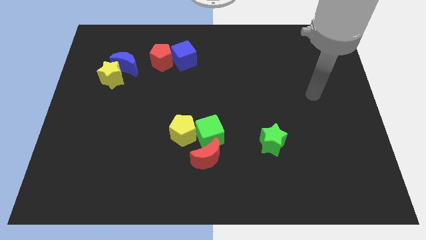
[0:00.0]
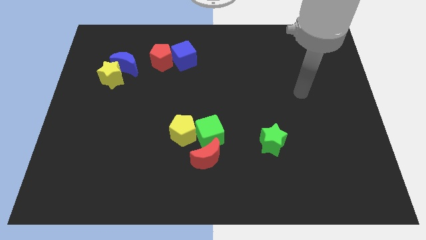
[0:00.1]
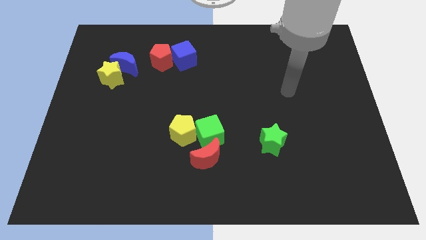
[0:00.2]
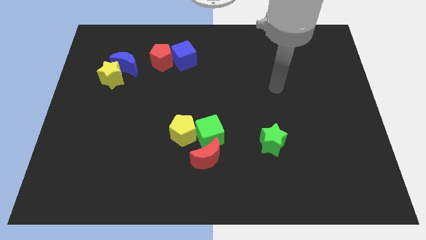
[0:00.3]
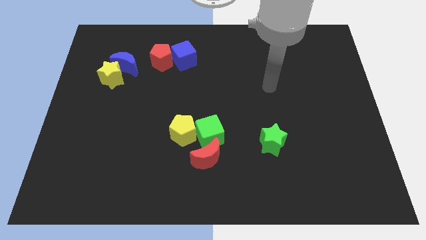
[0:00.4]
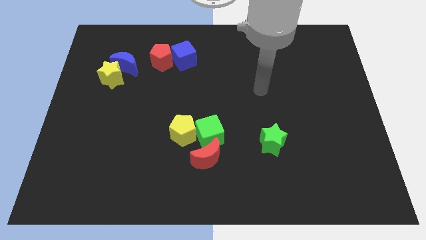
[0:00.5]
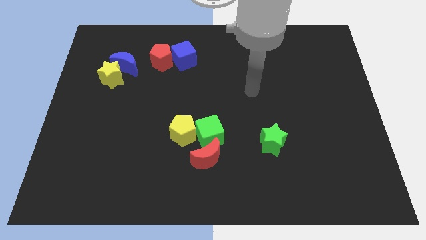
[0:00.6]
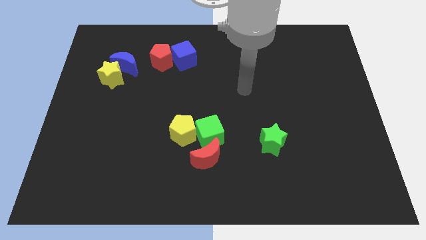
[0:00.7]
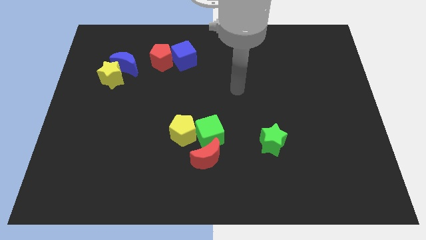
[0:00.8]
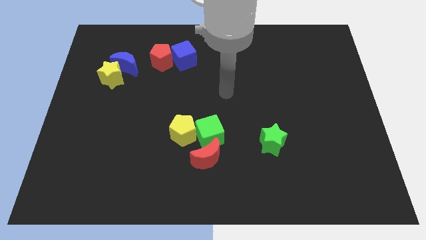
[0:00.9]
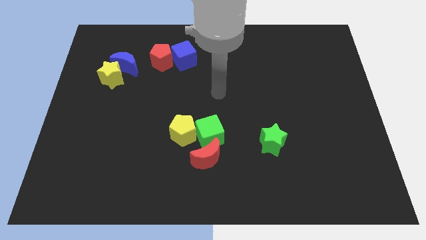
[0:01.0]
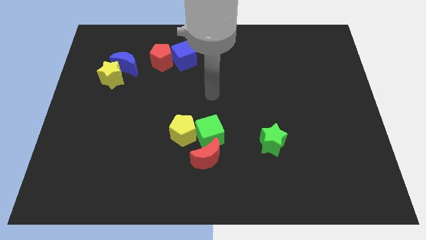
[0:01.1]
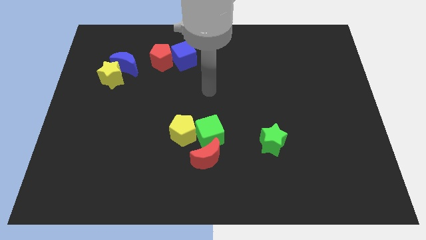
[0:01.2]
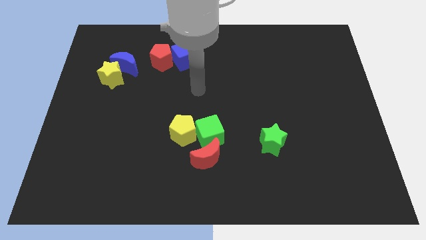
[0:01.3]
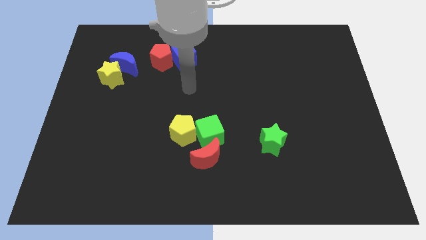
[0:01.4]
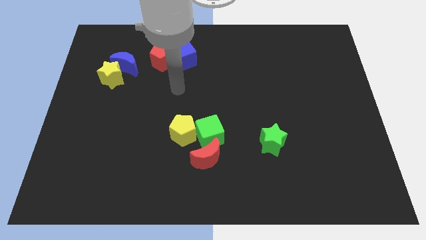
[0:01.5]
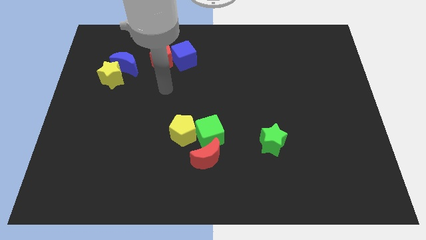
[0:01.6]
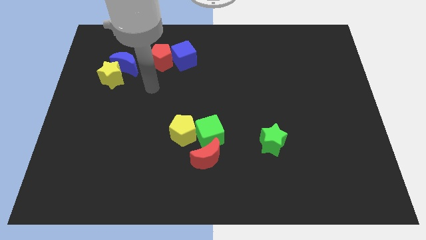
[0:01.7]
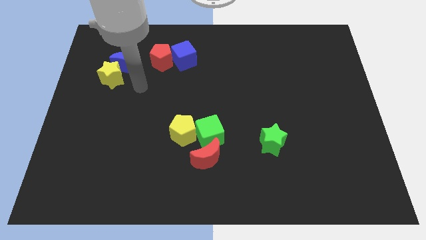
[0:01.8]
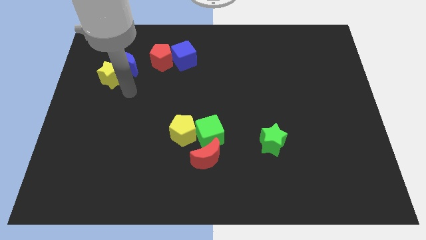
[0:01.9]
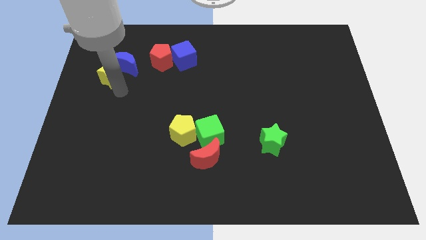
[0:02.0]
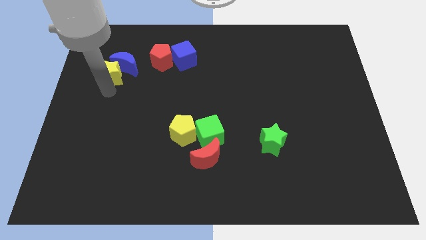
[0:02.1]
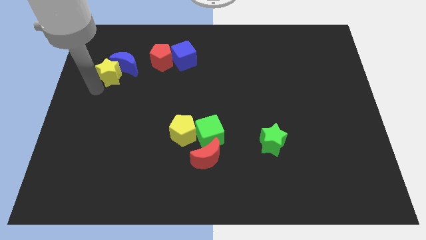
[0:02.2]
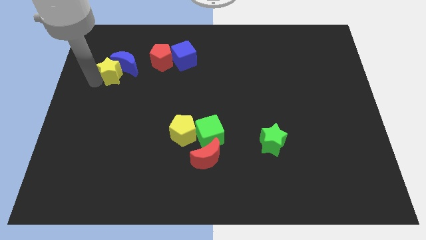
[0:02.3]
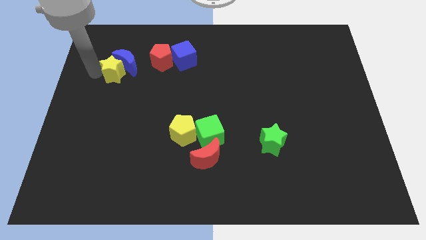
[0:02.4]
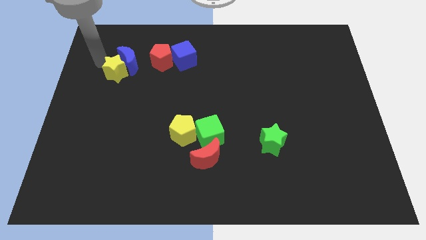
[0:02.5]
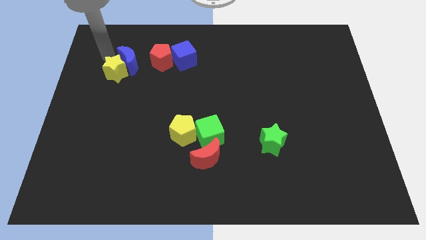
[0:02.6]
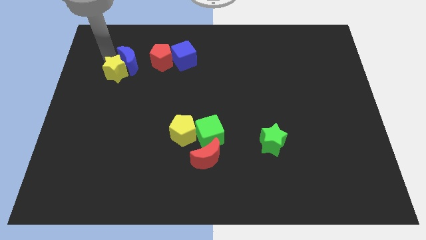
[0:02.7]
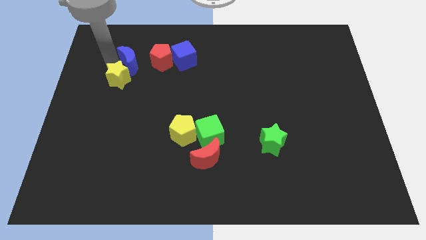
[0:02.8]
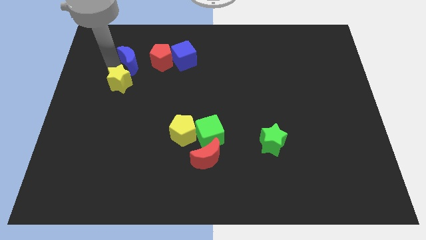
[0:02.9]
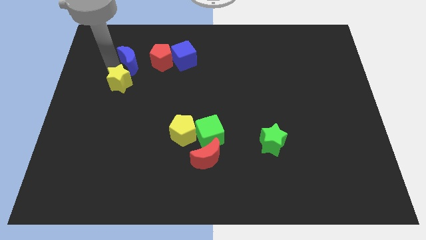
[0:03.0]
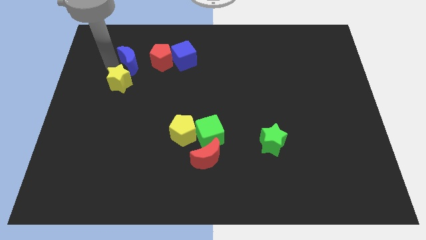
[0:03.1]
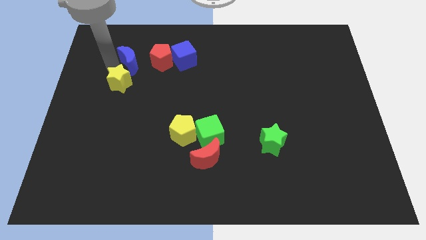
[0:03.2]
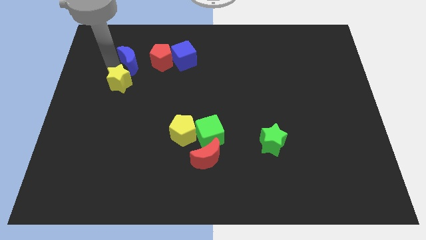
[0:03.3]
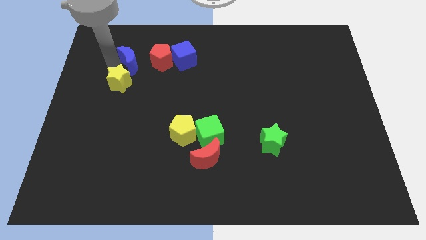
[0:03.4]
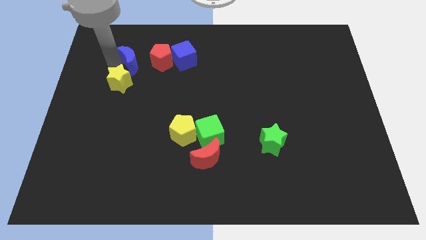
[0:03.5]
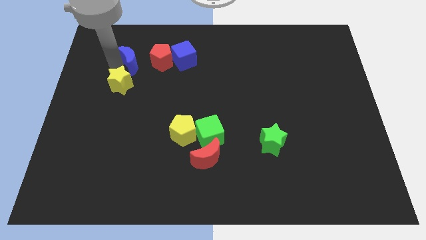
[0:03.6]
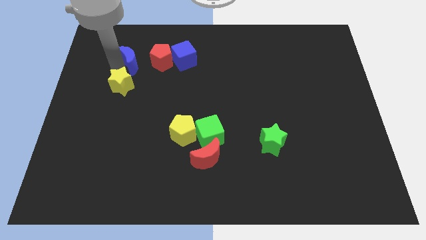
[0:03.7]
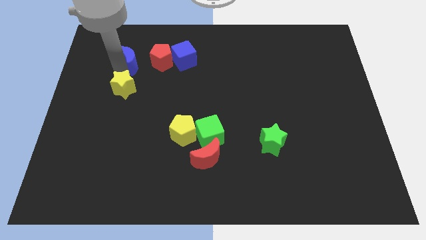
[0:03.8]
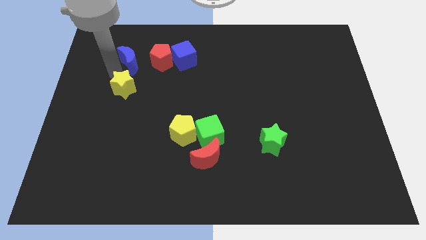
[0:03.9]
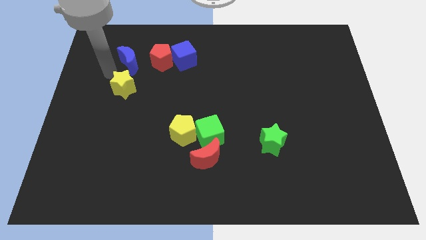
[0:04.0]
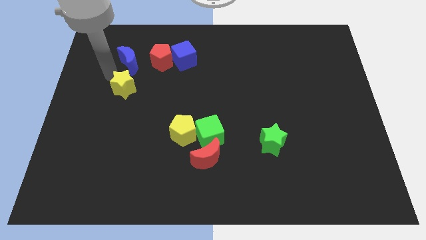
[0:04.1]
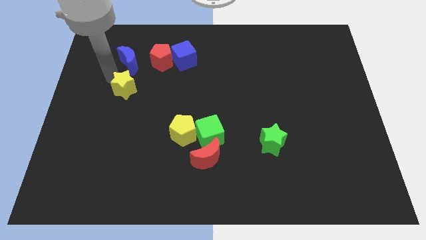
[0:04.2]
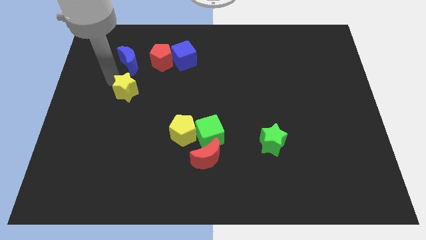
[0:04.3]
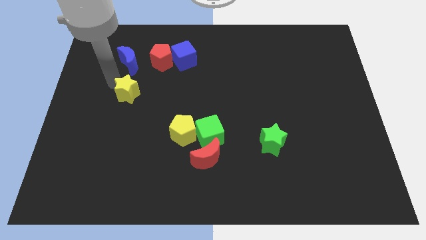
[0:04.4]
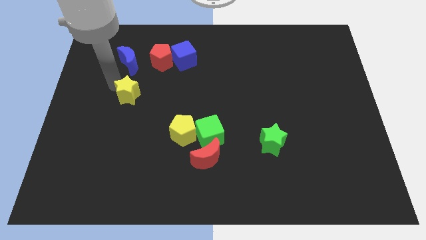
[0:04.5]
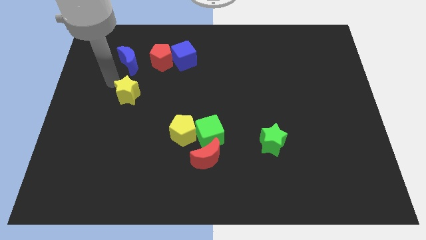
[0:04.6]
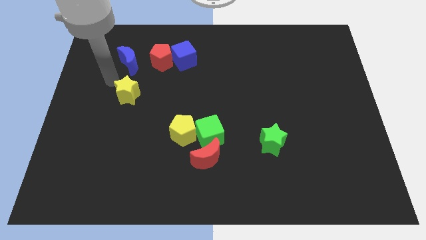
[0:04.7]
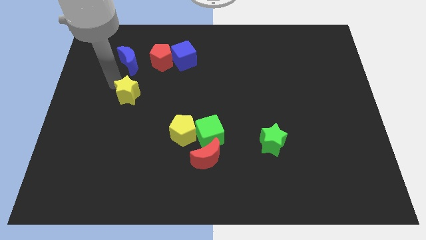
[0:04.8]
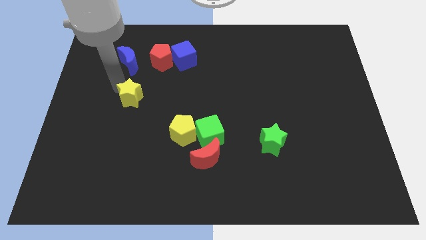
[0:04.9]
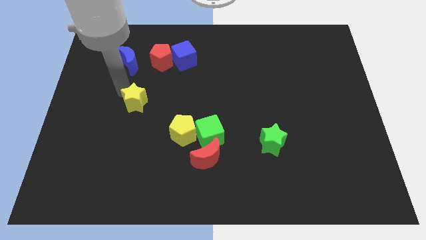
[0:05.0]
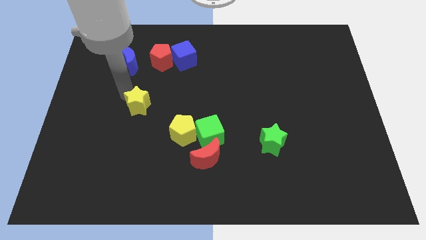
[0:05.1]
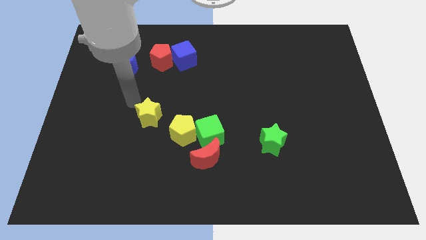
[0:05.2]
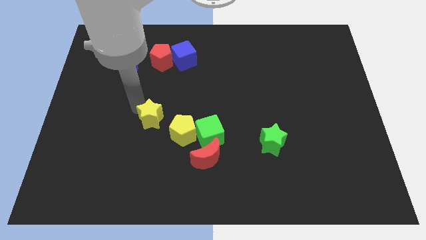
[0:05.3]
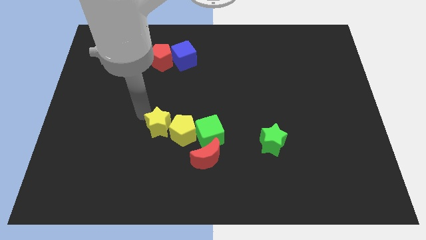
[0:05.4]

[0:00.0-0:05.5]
put the yellow star to the yellow pentagon

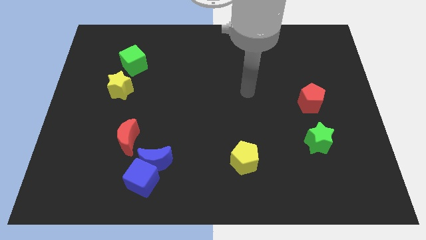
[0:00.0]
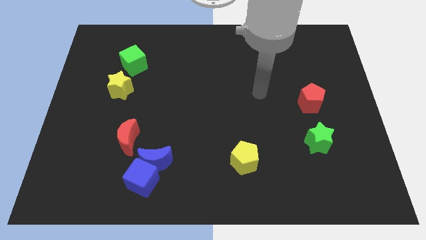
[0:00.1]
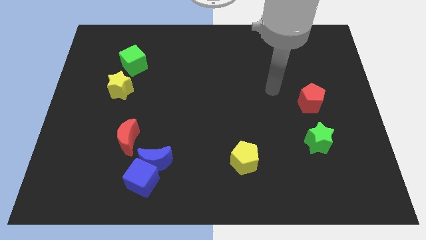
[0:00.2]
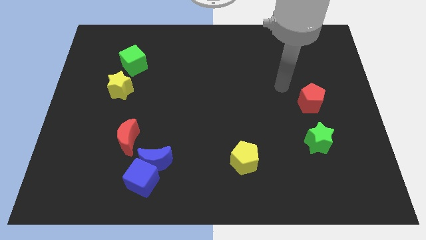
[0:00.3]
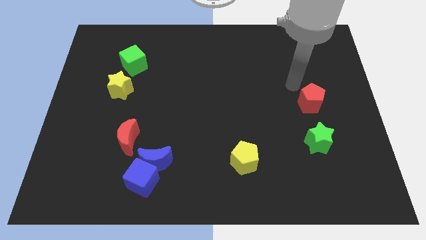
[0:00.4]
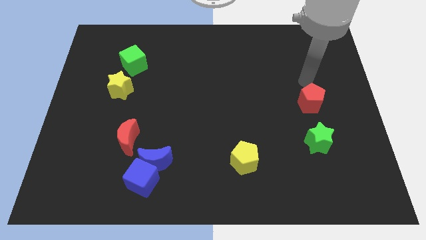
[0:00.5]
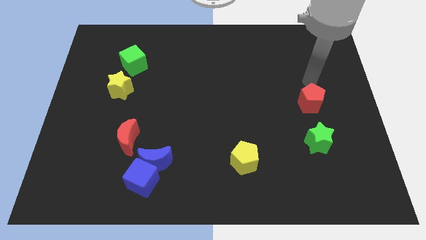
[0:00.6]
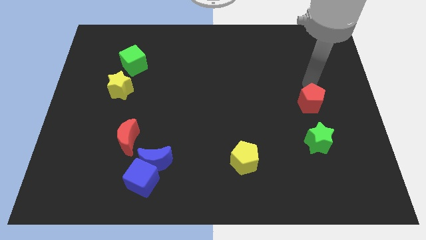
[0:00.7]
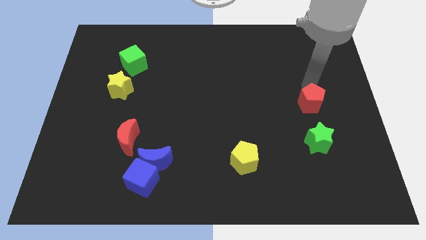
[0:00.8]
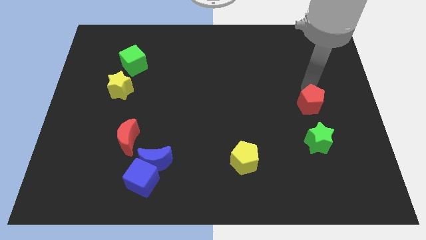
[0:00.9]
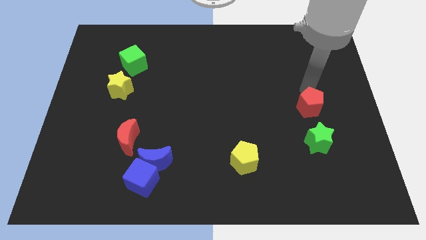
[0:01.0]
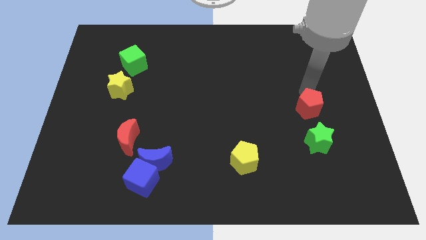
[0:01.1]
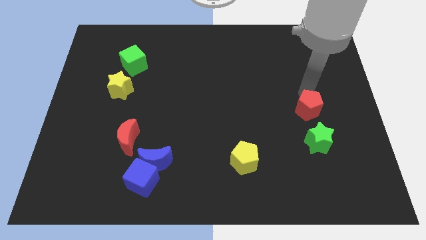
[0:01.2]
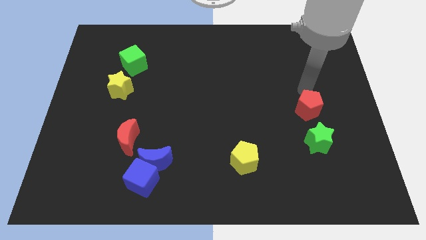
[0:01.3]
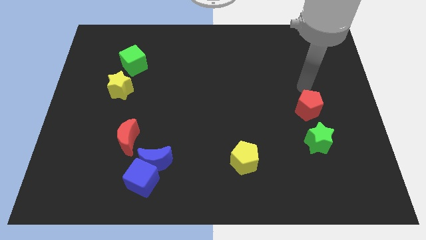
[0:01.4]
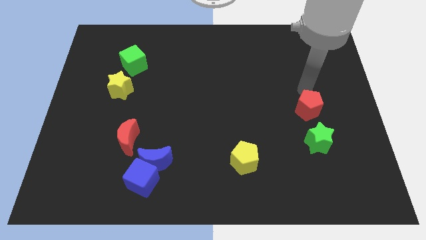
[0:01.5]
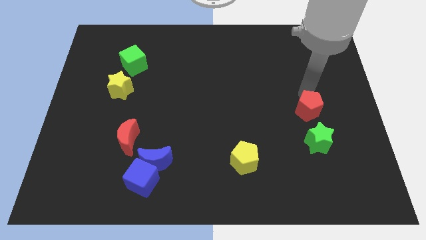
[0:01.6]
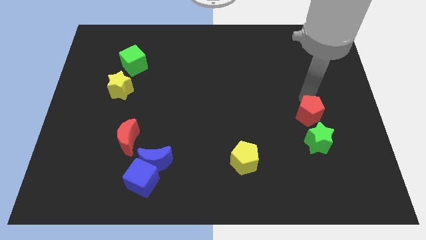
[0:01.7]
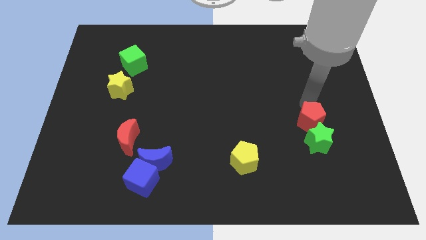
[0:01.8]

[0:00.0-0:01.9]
move the red pentagon next to the green star

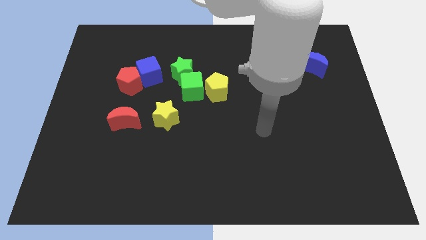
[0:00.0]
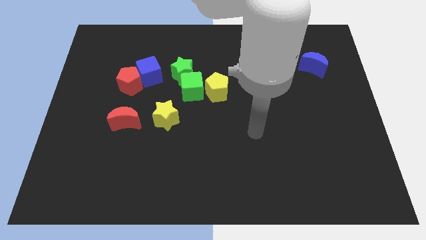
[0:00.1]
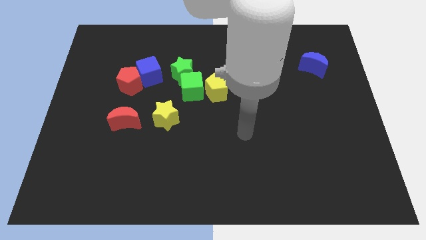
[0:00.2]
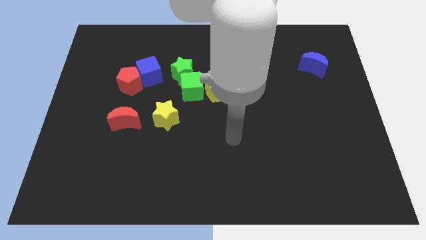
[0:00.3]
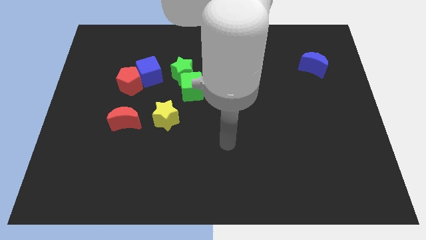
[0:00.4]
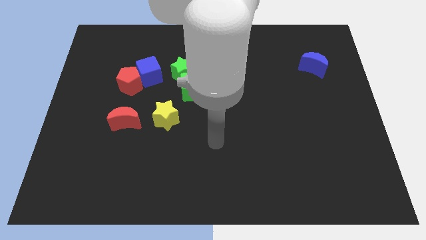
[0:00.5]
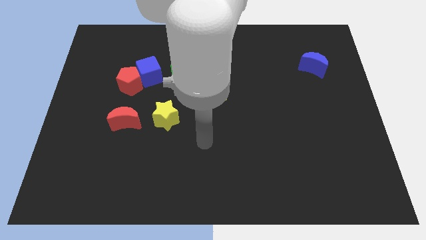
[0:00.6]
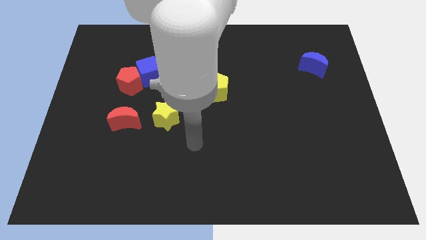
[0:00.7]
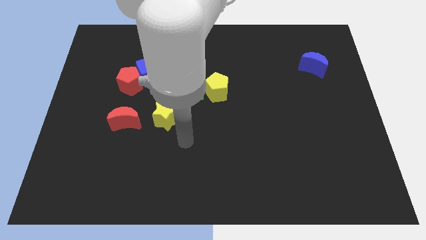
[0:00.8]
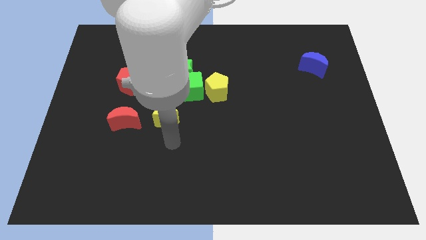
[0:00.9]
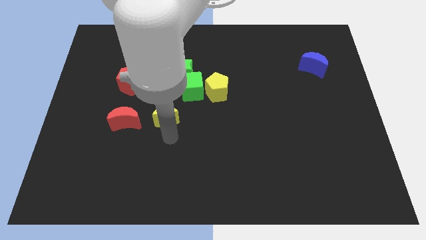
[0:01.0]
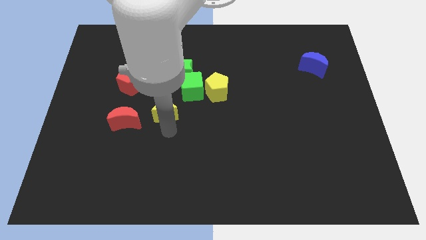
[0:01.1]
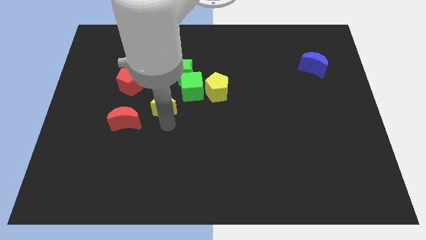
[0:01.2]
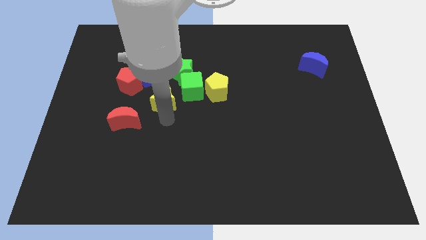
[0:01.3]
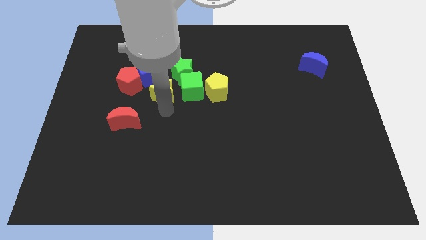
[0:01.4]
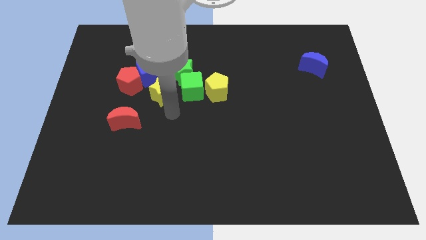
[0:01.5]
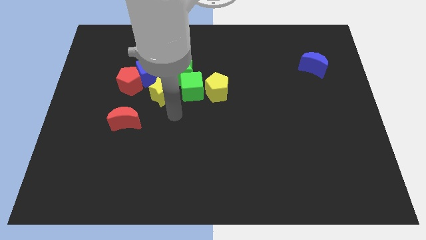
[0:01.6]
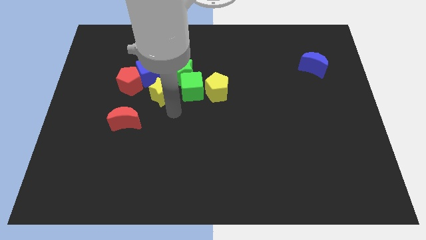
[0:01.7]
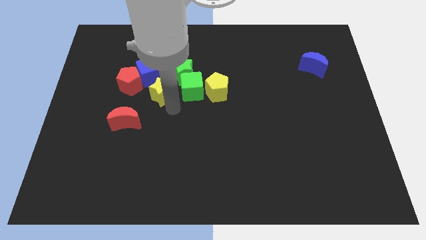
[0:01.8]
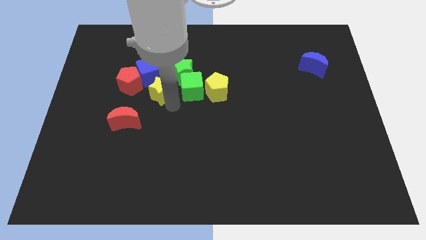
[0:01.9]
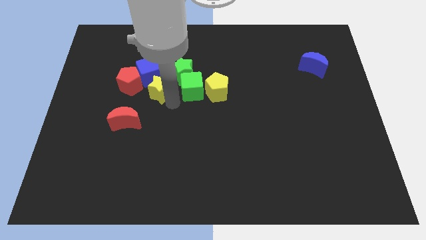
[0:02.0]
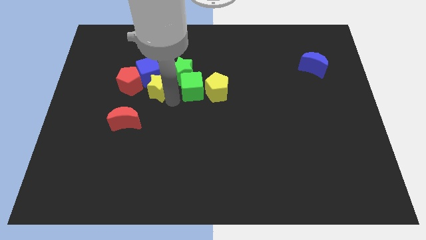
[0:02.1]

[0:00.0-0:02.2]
move the yellow star to the blue cube
